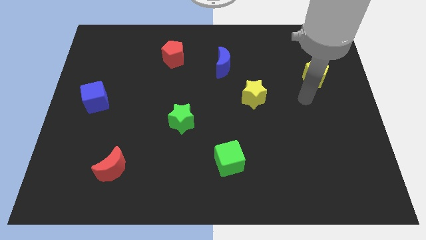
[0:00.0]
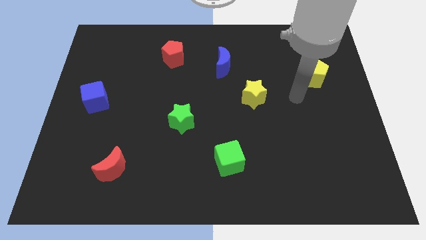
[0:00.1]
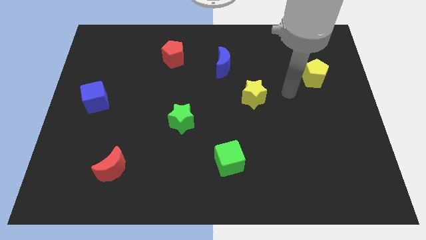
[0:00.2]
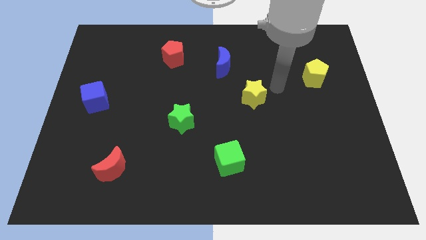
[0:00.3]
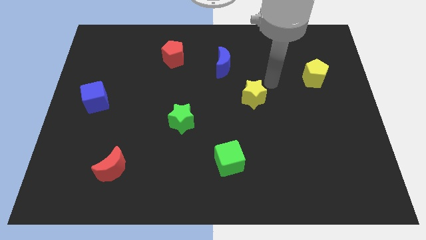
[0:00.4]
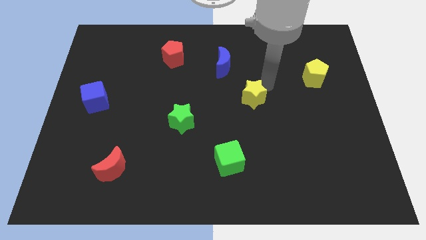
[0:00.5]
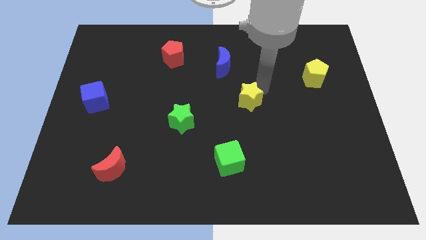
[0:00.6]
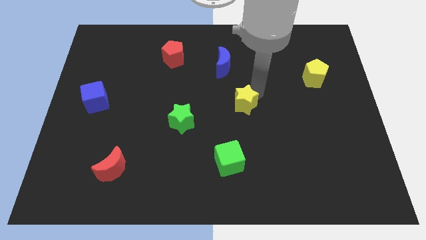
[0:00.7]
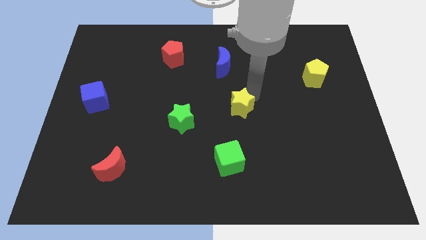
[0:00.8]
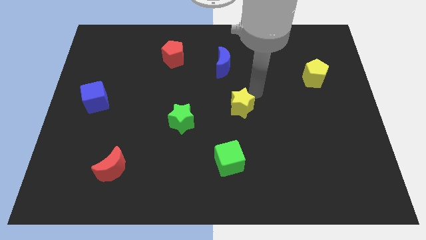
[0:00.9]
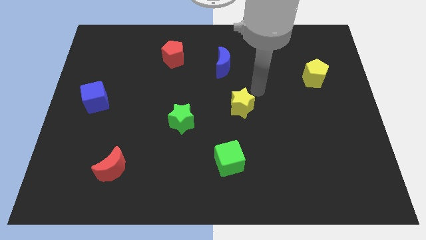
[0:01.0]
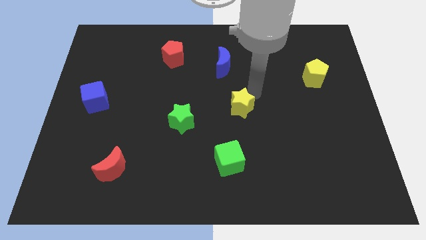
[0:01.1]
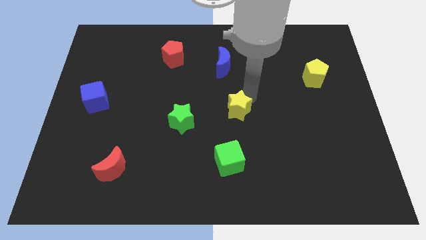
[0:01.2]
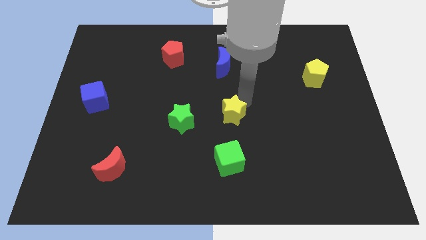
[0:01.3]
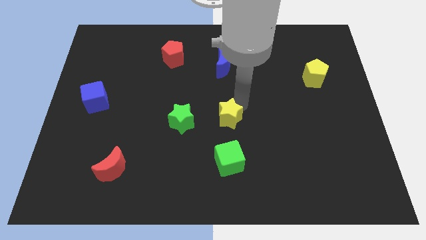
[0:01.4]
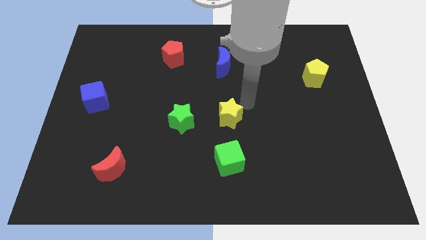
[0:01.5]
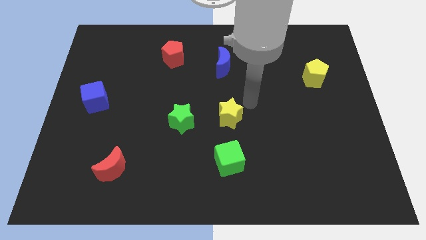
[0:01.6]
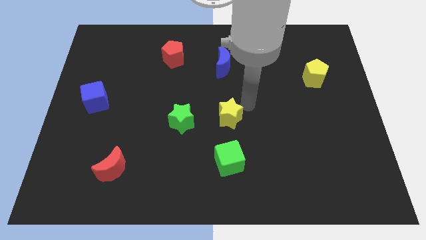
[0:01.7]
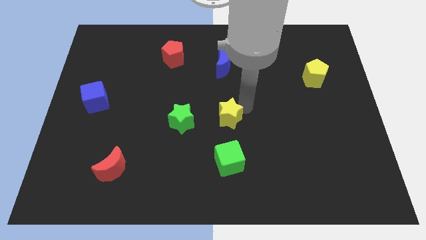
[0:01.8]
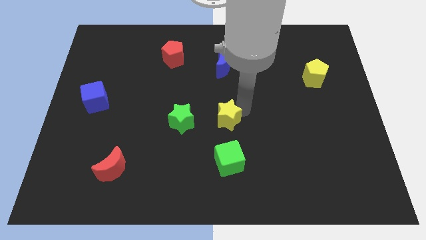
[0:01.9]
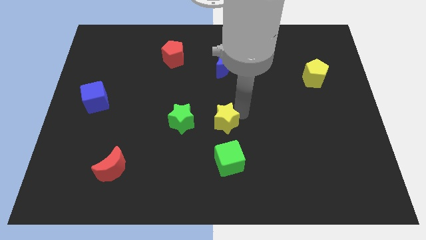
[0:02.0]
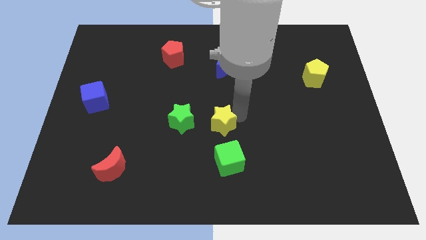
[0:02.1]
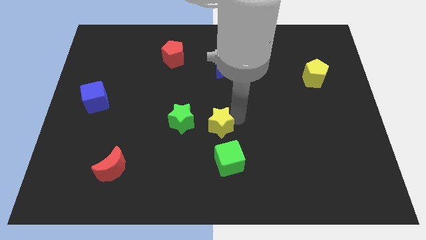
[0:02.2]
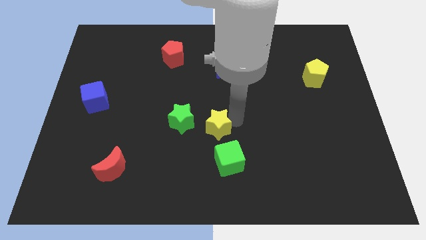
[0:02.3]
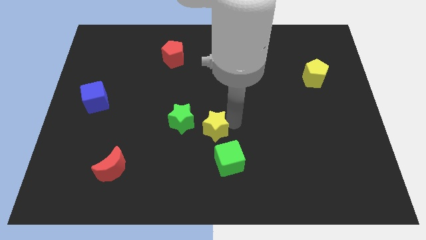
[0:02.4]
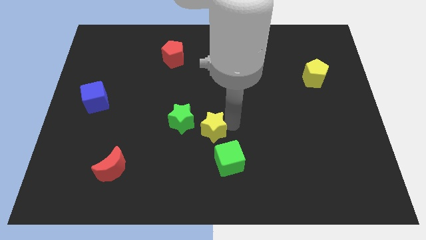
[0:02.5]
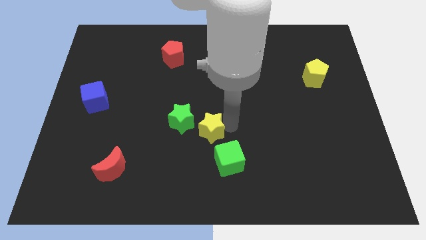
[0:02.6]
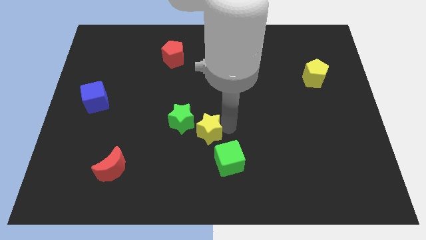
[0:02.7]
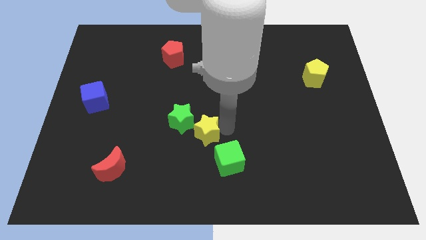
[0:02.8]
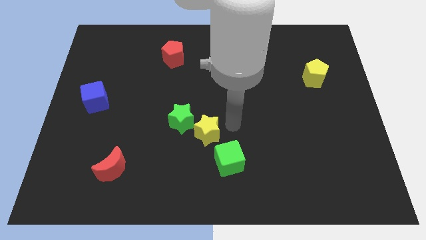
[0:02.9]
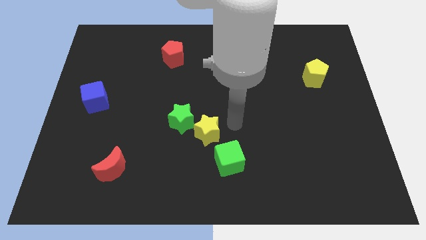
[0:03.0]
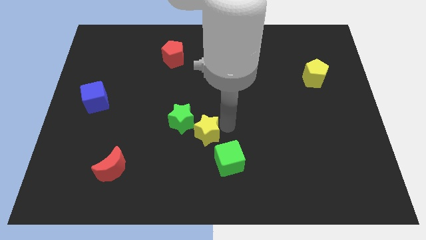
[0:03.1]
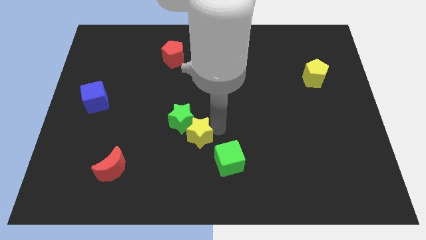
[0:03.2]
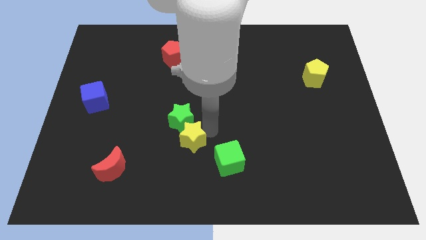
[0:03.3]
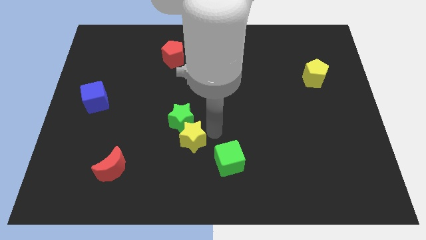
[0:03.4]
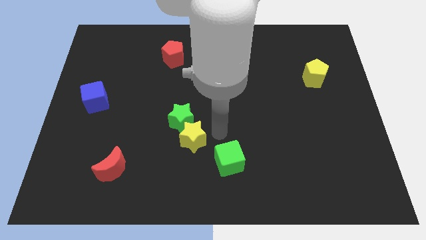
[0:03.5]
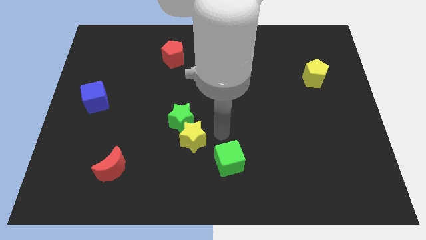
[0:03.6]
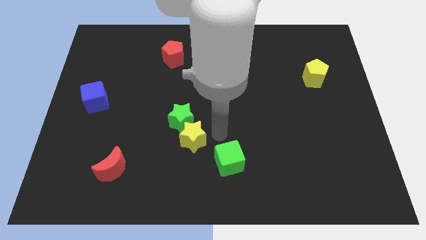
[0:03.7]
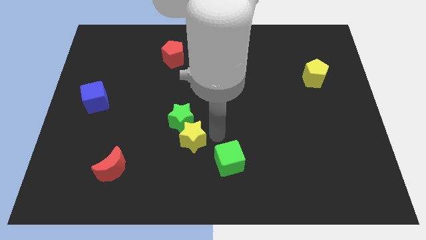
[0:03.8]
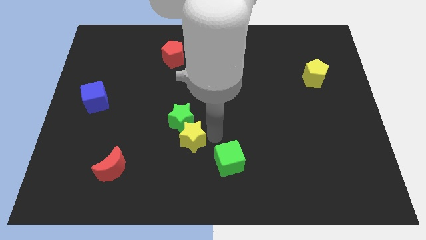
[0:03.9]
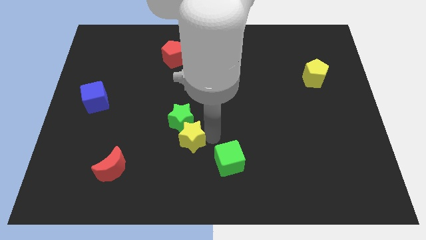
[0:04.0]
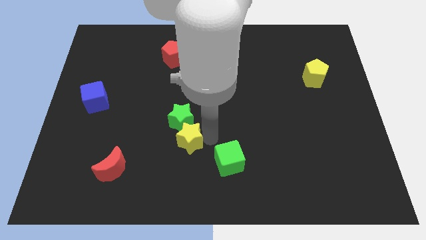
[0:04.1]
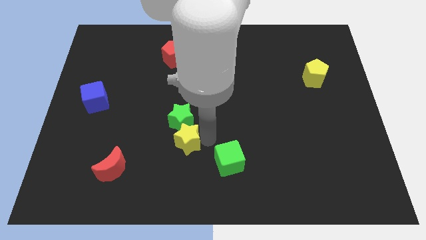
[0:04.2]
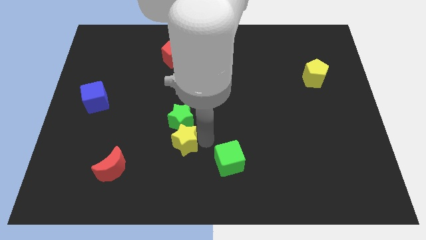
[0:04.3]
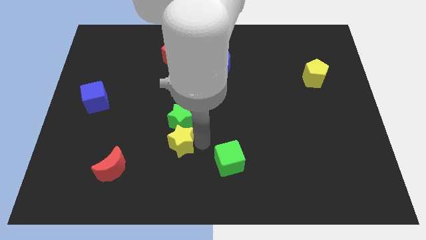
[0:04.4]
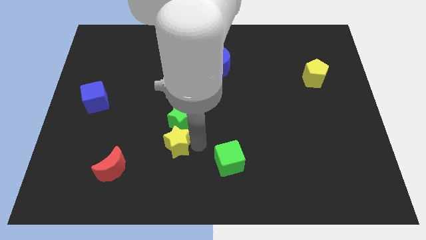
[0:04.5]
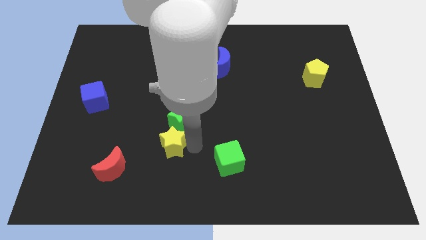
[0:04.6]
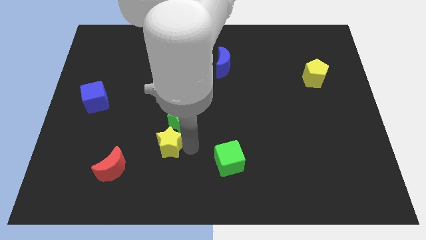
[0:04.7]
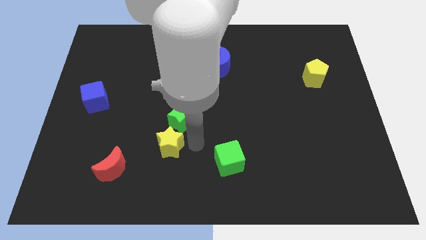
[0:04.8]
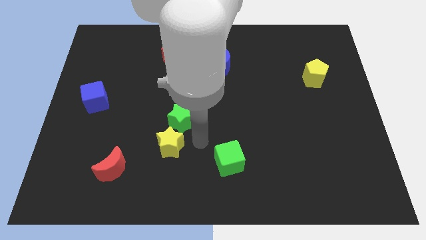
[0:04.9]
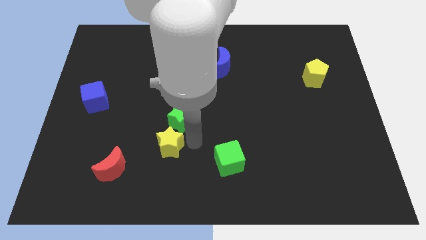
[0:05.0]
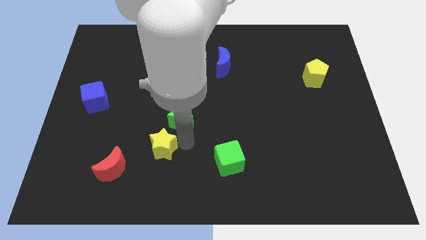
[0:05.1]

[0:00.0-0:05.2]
push the yellow star to the top right of the red moon

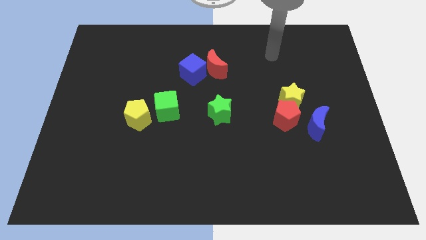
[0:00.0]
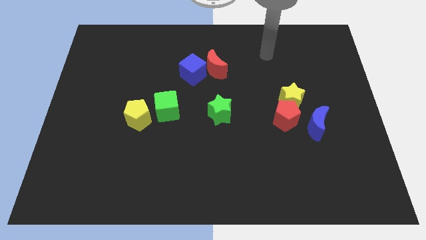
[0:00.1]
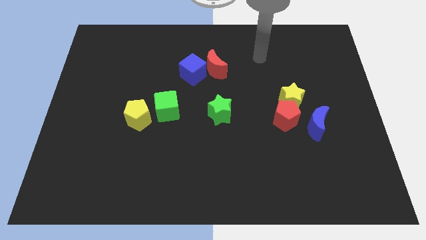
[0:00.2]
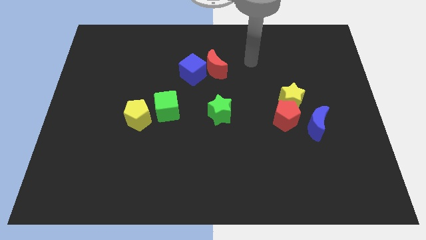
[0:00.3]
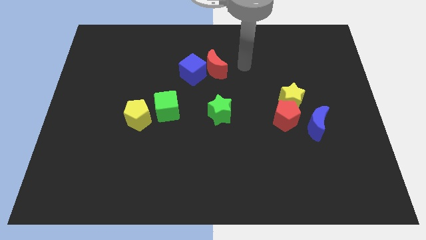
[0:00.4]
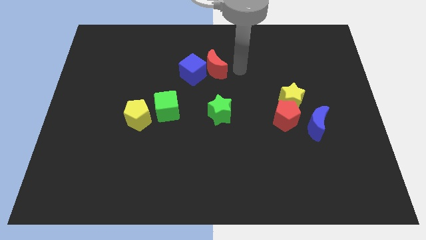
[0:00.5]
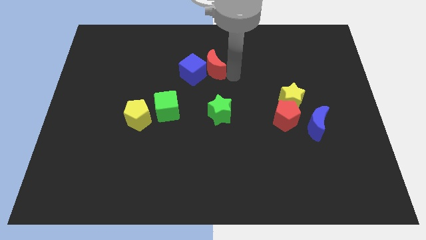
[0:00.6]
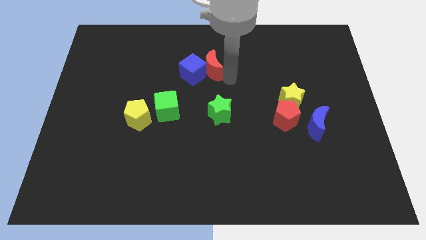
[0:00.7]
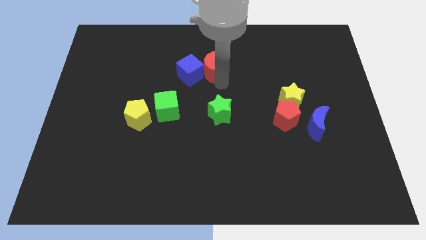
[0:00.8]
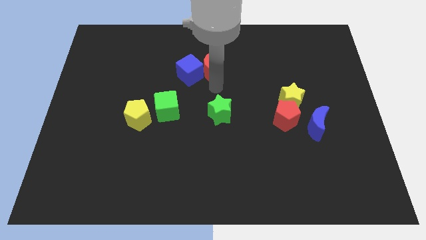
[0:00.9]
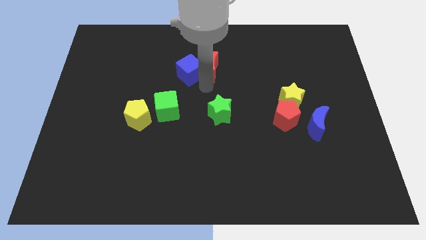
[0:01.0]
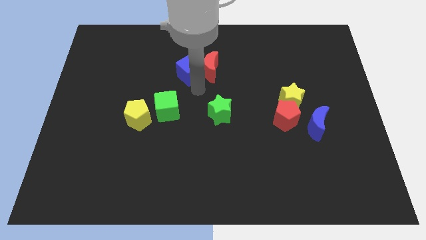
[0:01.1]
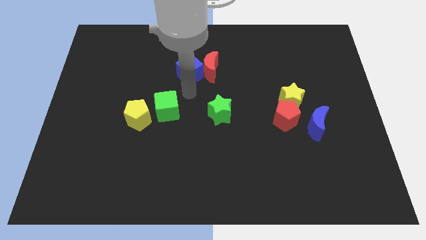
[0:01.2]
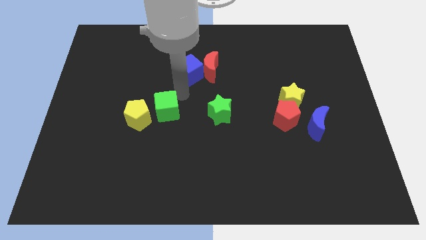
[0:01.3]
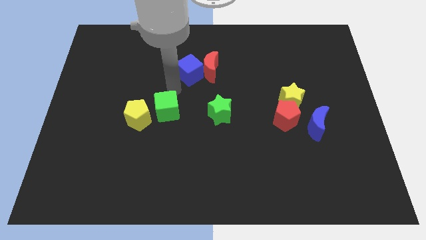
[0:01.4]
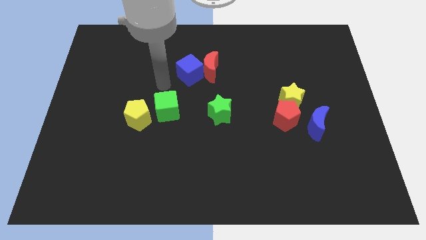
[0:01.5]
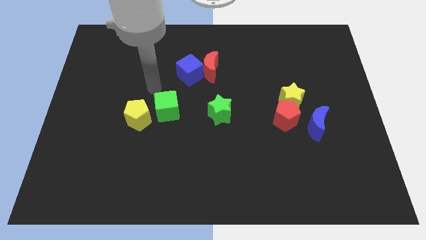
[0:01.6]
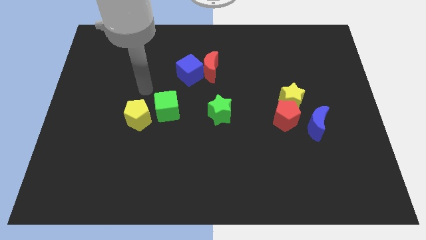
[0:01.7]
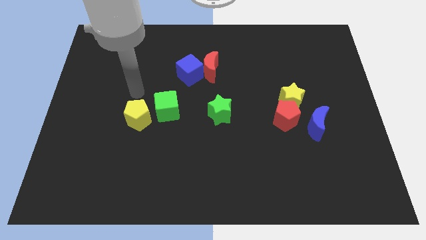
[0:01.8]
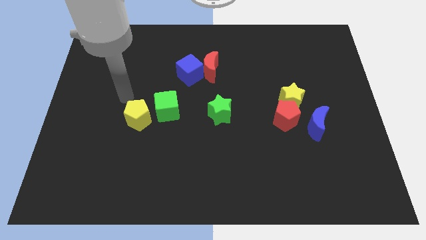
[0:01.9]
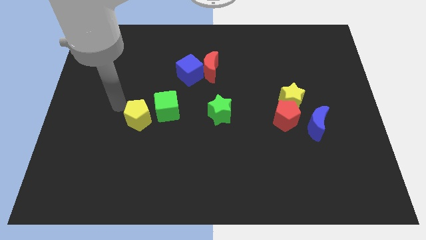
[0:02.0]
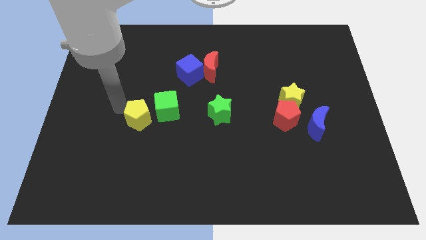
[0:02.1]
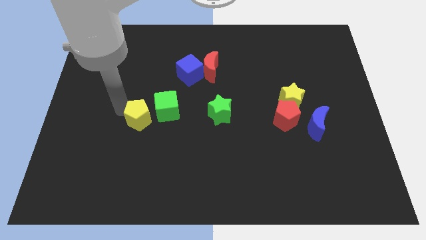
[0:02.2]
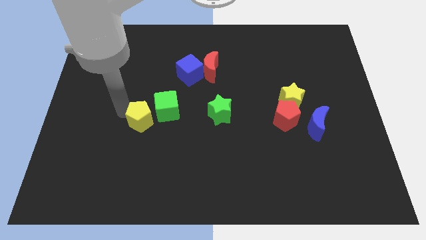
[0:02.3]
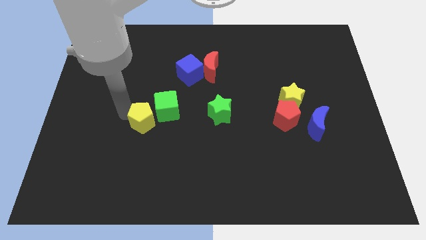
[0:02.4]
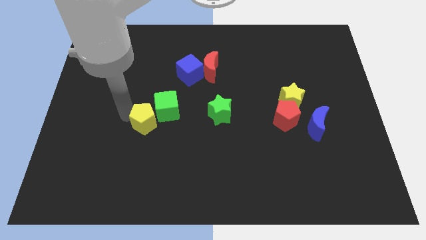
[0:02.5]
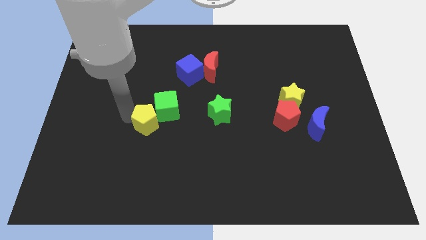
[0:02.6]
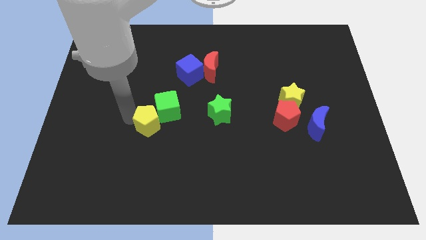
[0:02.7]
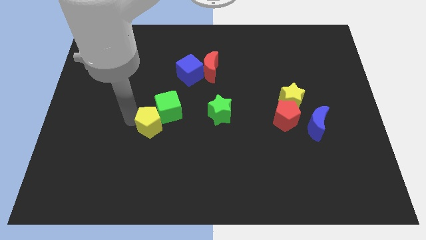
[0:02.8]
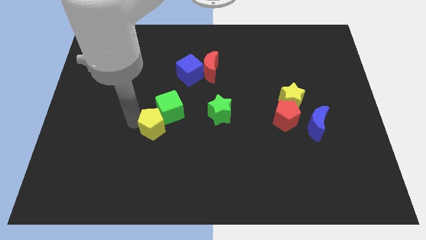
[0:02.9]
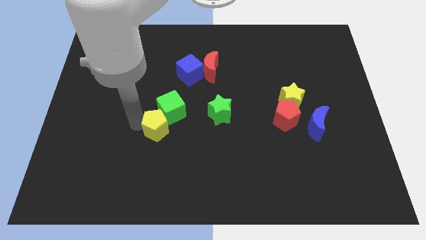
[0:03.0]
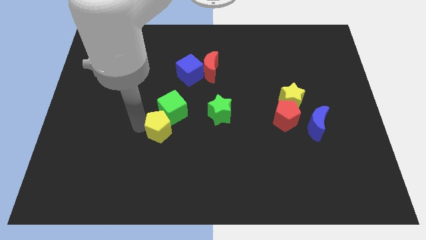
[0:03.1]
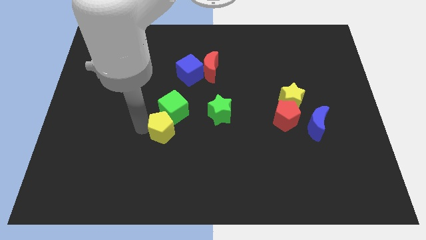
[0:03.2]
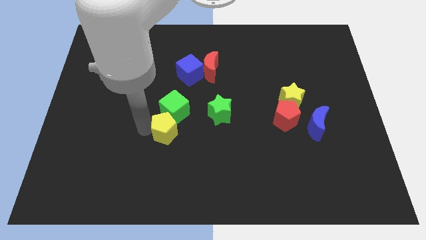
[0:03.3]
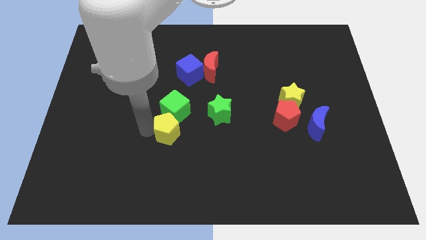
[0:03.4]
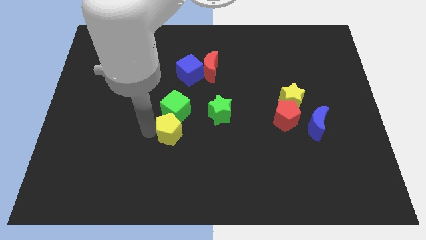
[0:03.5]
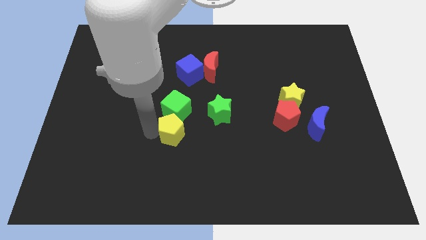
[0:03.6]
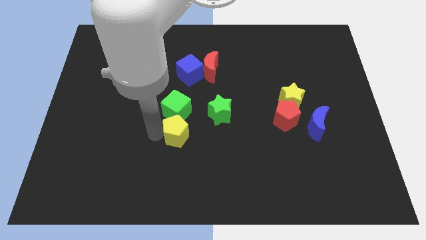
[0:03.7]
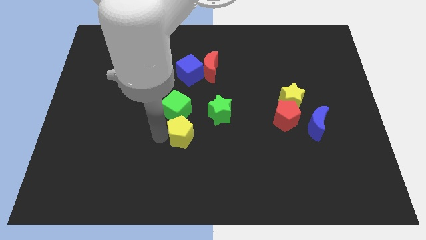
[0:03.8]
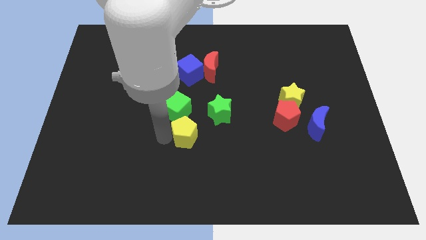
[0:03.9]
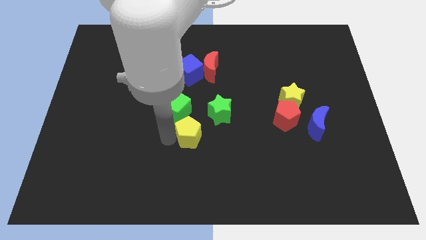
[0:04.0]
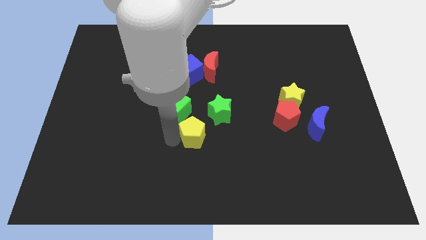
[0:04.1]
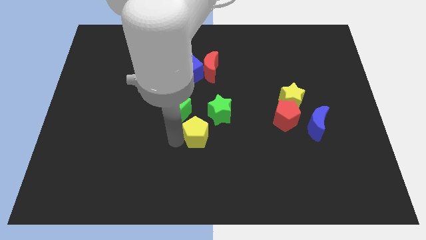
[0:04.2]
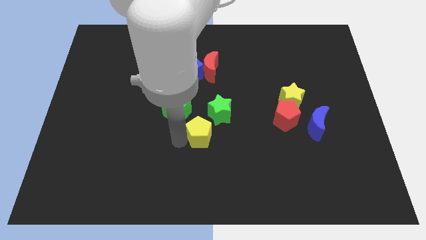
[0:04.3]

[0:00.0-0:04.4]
slide the yellow pentagon below the green star
